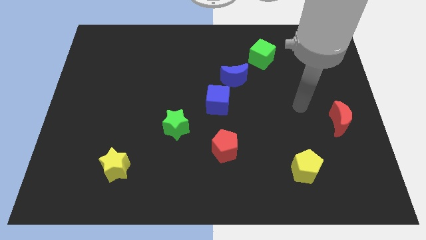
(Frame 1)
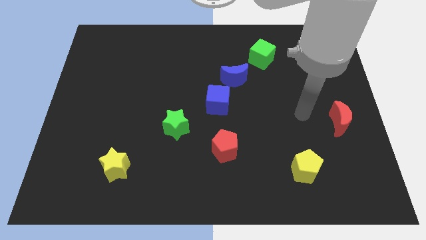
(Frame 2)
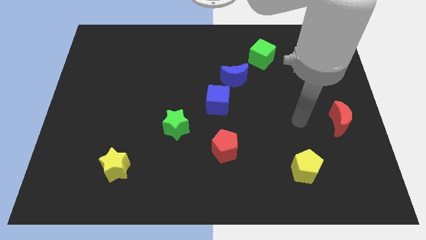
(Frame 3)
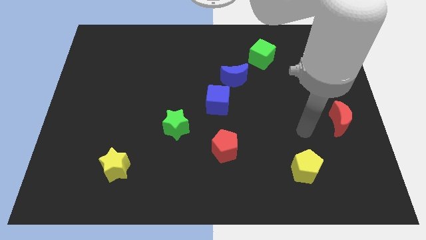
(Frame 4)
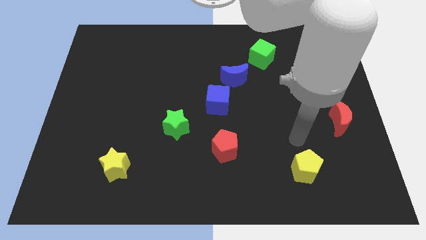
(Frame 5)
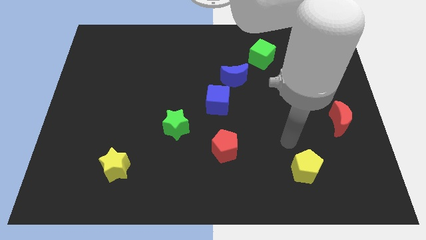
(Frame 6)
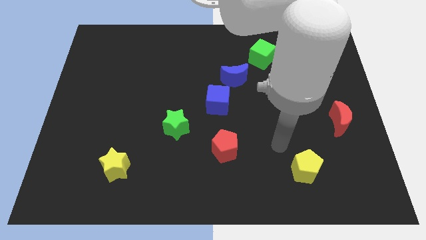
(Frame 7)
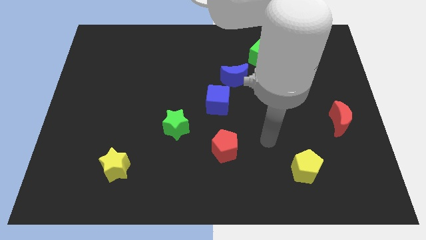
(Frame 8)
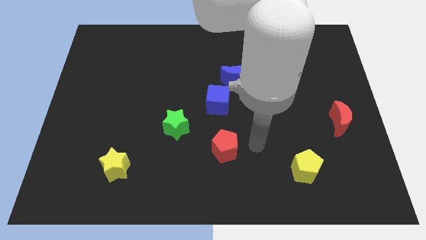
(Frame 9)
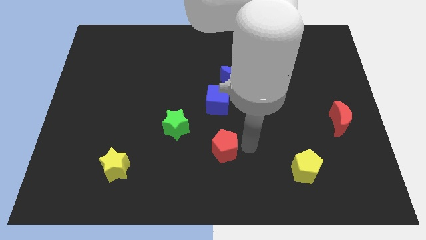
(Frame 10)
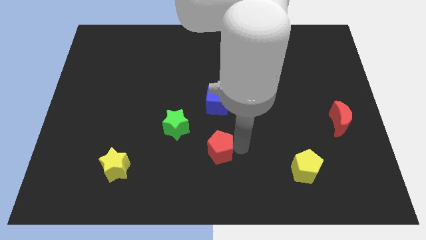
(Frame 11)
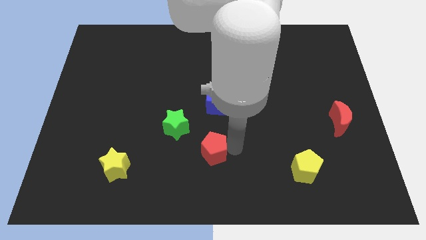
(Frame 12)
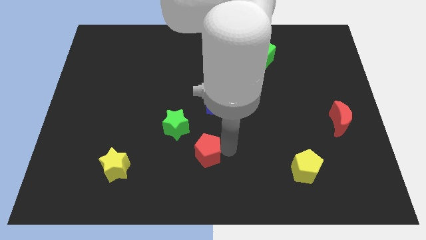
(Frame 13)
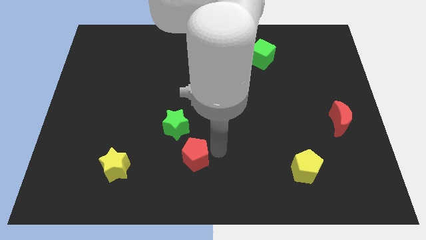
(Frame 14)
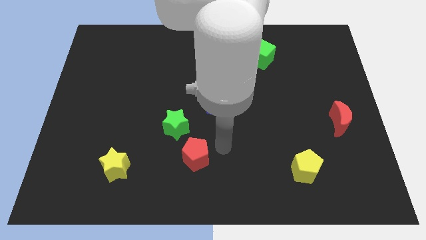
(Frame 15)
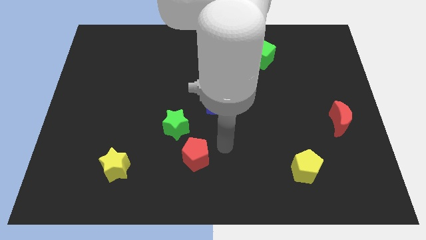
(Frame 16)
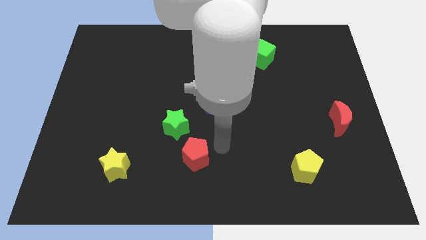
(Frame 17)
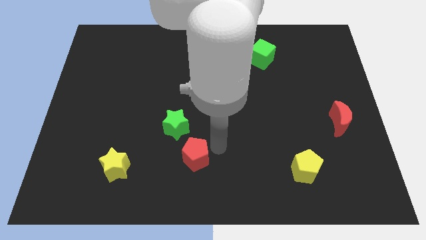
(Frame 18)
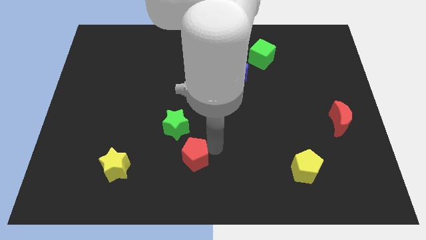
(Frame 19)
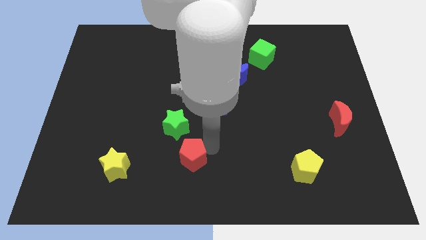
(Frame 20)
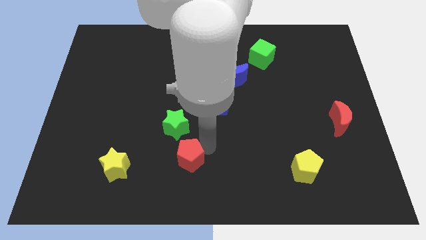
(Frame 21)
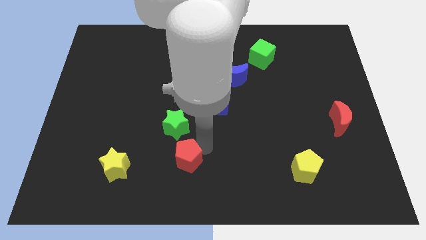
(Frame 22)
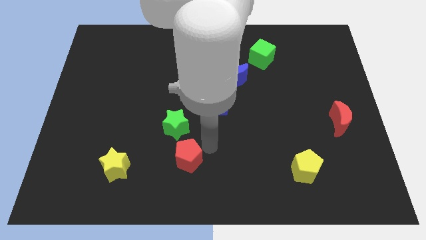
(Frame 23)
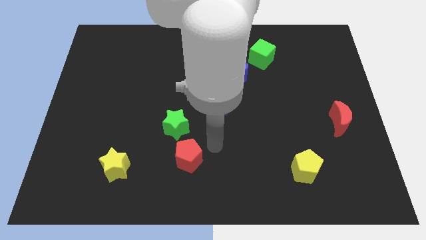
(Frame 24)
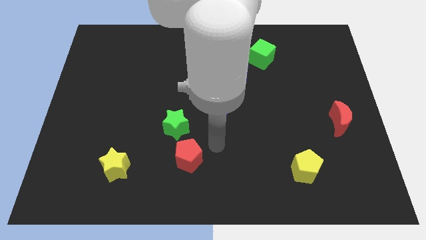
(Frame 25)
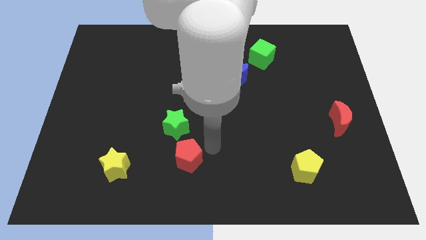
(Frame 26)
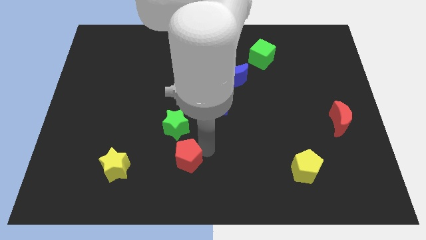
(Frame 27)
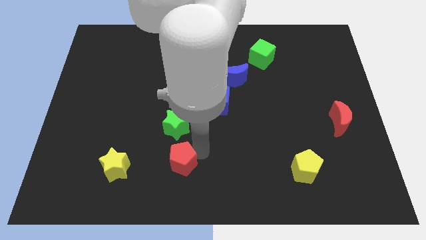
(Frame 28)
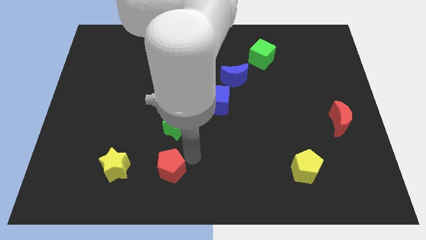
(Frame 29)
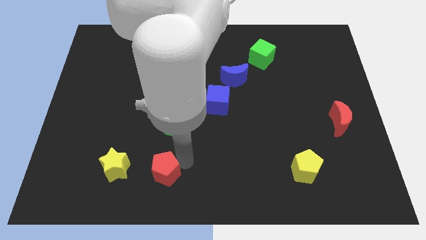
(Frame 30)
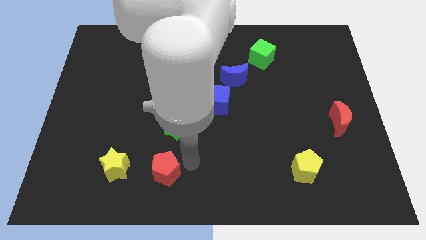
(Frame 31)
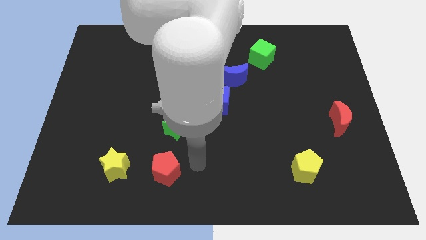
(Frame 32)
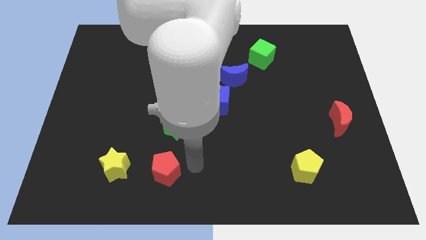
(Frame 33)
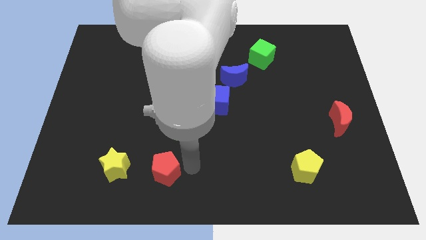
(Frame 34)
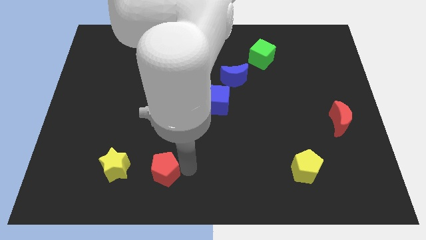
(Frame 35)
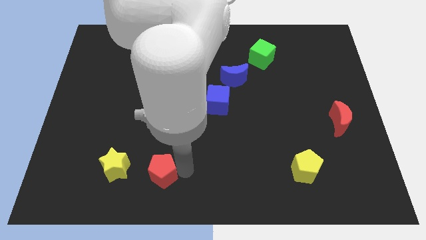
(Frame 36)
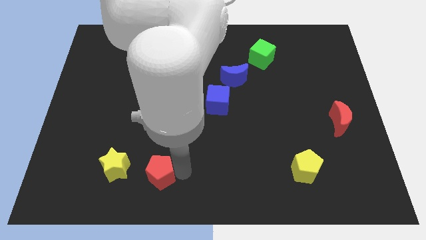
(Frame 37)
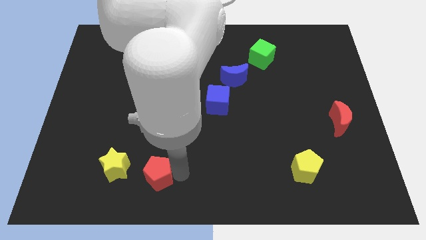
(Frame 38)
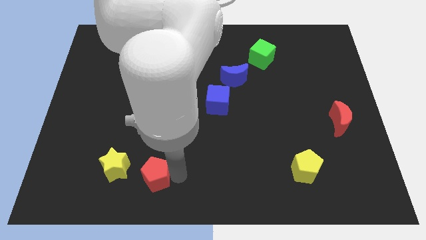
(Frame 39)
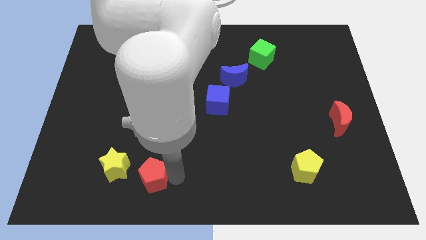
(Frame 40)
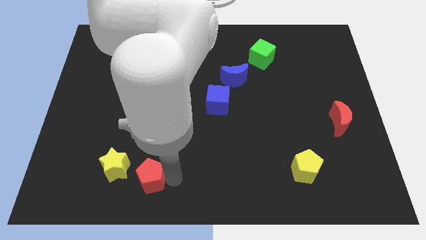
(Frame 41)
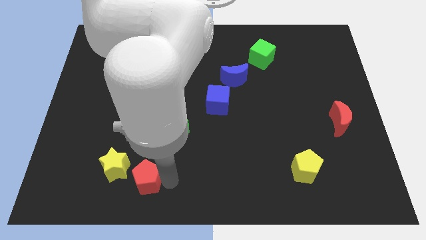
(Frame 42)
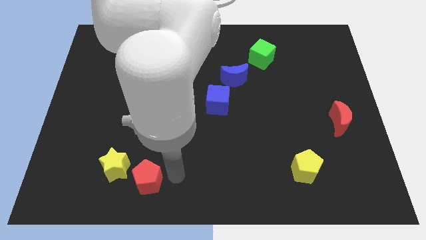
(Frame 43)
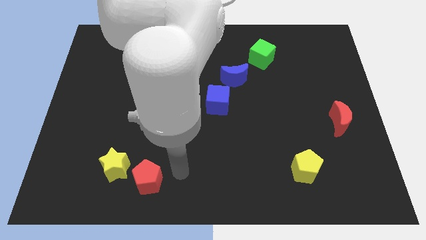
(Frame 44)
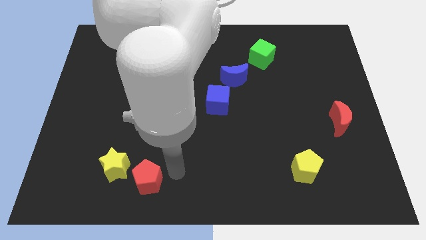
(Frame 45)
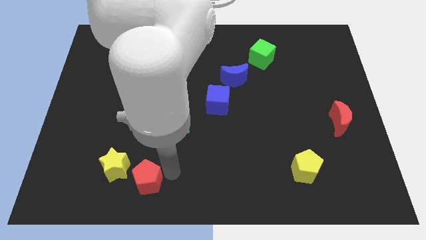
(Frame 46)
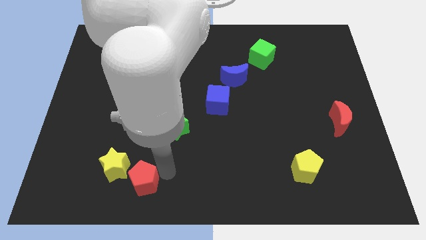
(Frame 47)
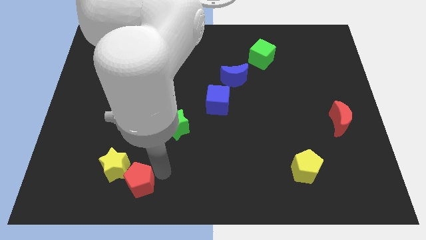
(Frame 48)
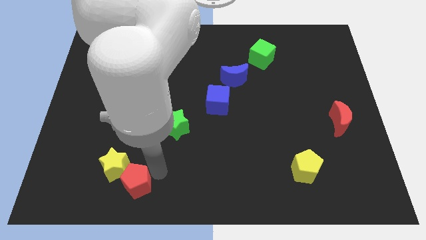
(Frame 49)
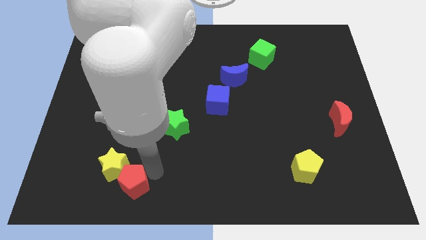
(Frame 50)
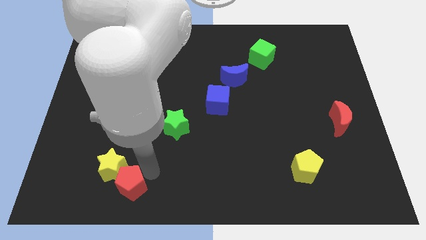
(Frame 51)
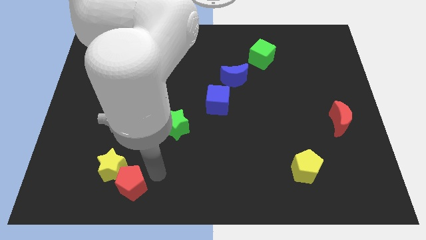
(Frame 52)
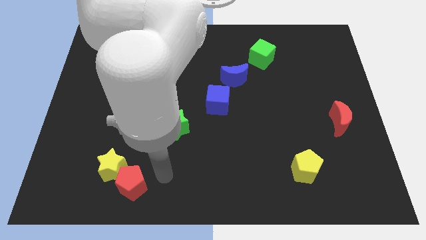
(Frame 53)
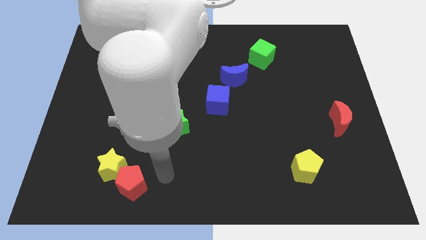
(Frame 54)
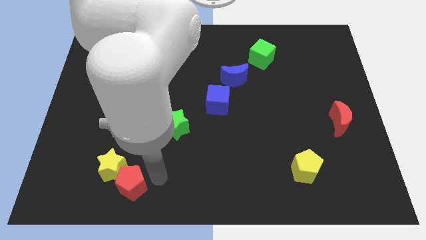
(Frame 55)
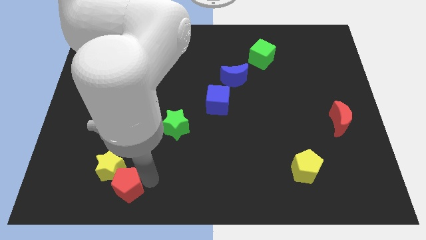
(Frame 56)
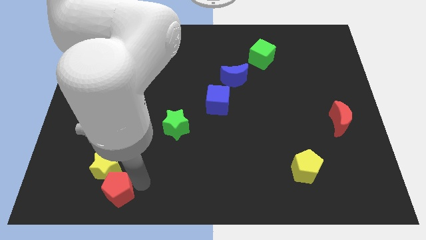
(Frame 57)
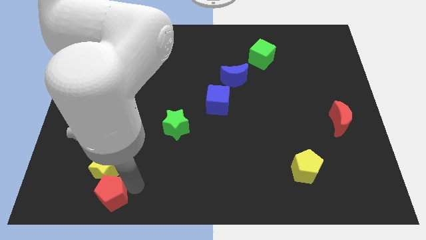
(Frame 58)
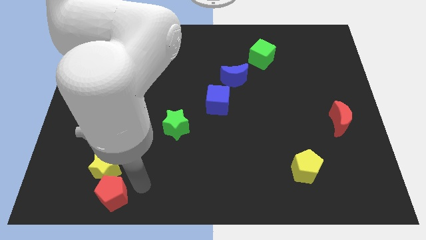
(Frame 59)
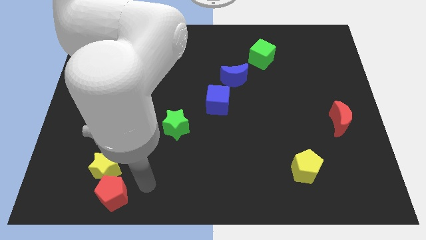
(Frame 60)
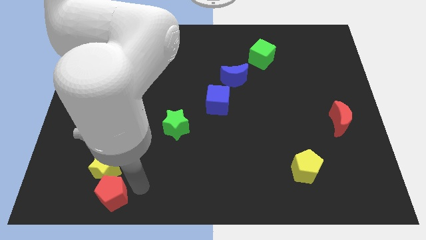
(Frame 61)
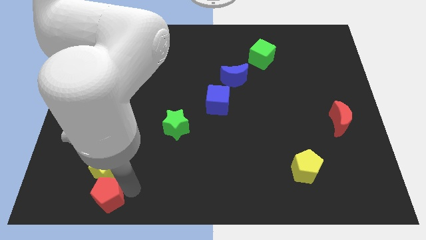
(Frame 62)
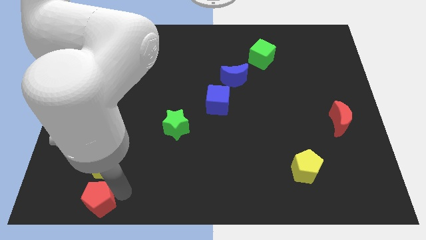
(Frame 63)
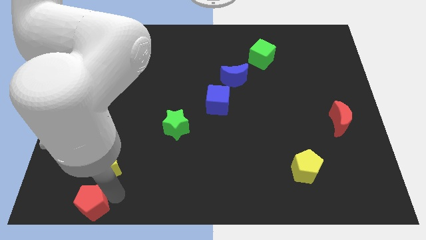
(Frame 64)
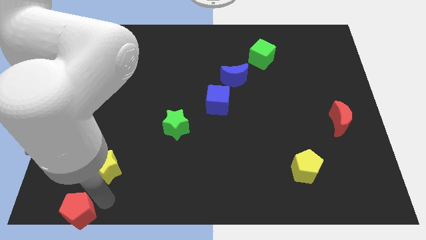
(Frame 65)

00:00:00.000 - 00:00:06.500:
slide the red pentagon to the bottom left of the board
